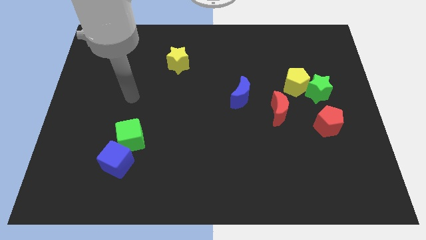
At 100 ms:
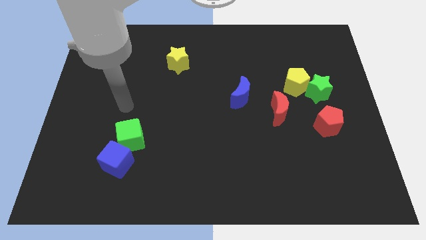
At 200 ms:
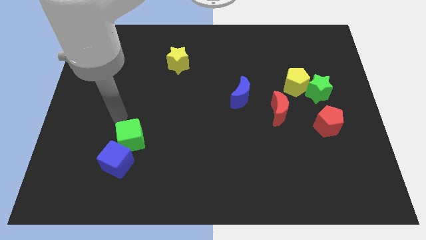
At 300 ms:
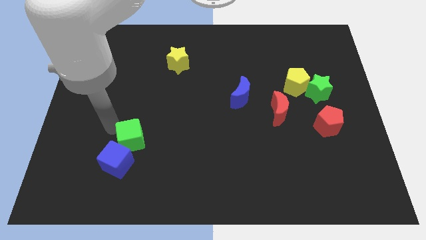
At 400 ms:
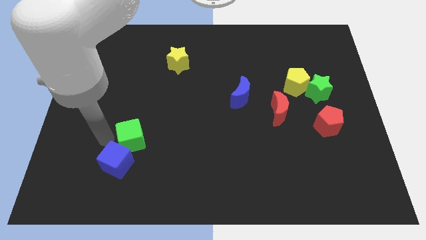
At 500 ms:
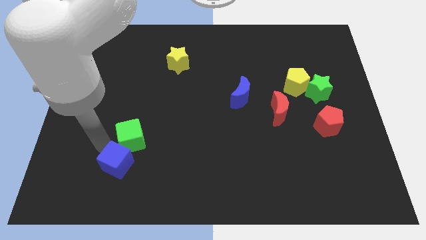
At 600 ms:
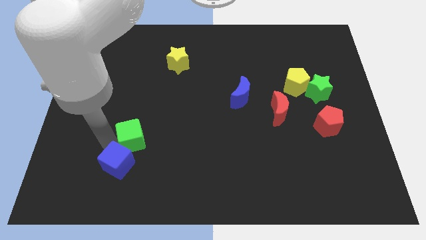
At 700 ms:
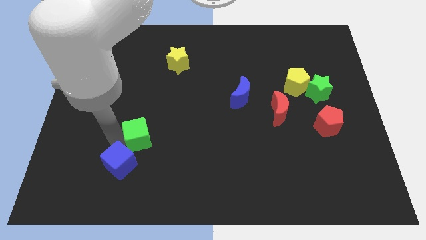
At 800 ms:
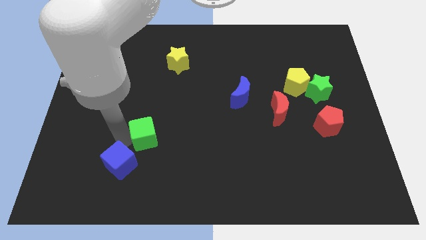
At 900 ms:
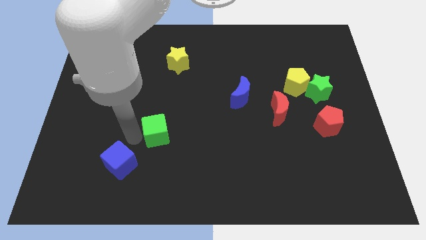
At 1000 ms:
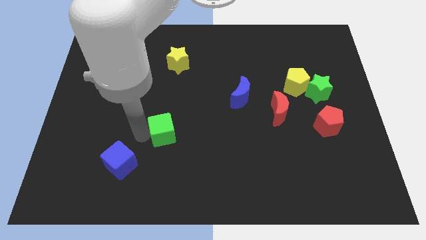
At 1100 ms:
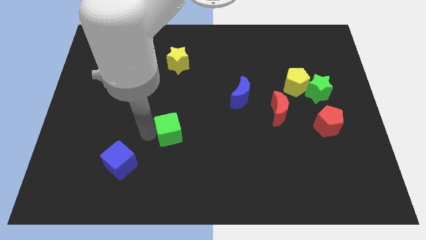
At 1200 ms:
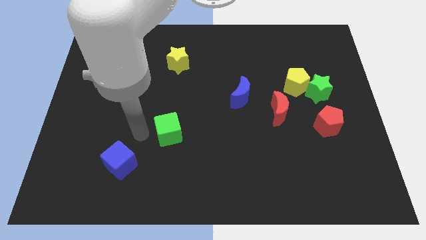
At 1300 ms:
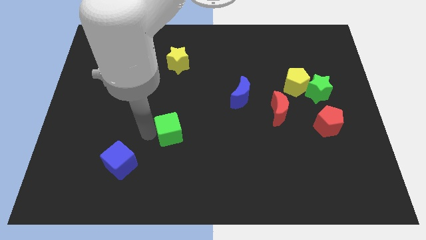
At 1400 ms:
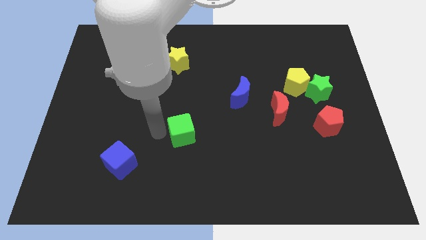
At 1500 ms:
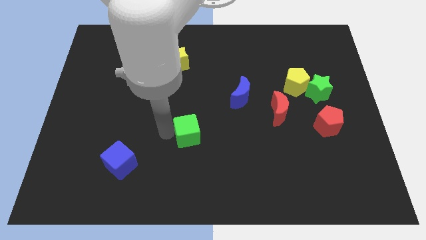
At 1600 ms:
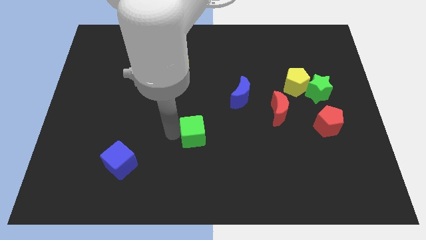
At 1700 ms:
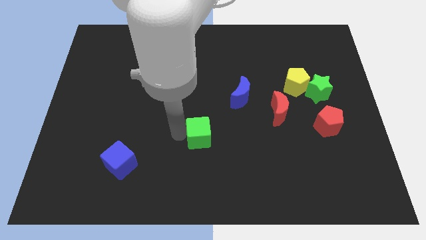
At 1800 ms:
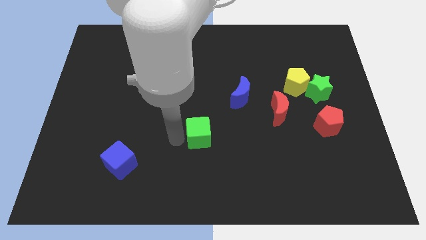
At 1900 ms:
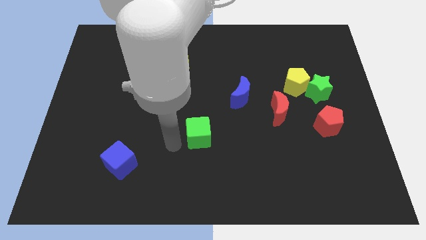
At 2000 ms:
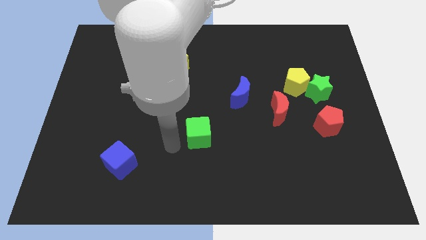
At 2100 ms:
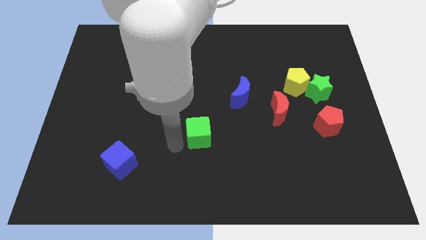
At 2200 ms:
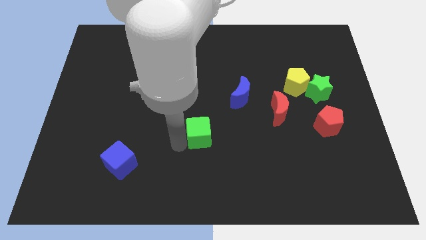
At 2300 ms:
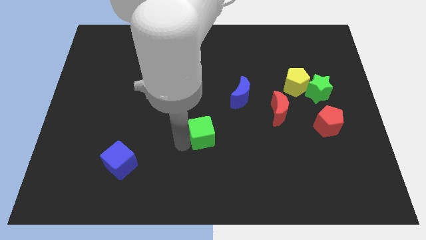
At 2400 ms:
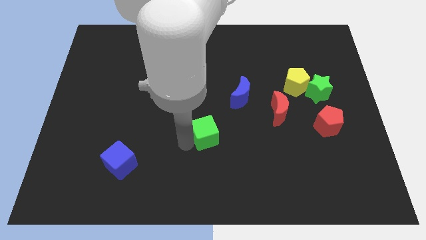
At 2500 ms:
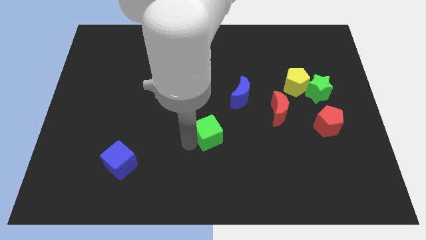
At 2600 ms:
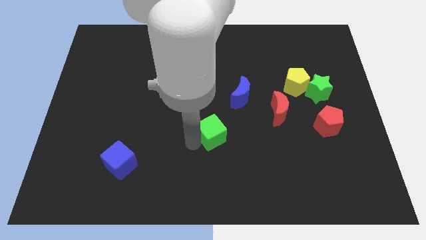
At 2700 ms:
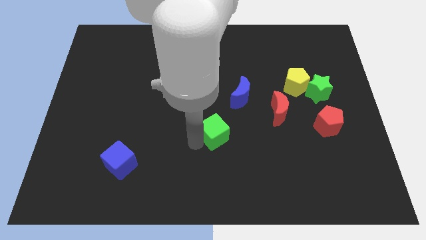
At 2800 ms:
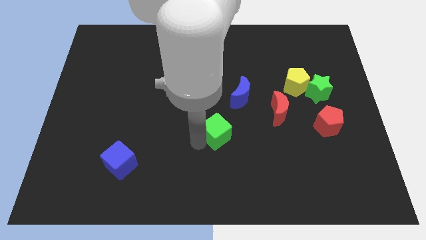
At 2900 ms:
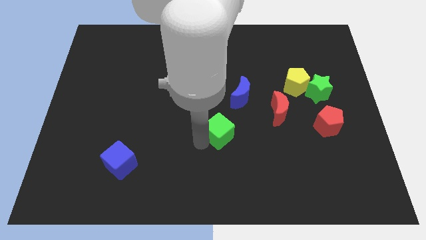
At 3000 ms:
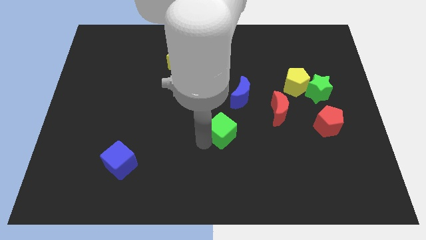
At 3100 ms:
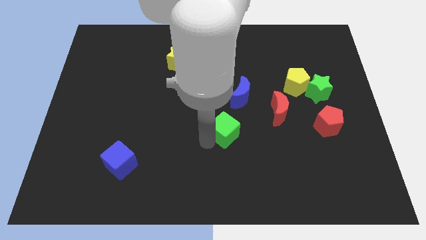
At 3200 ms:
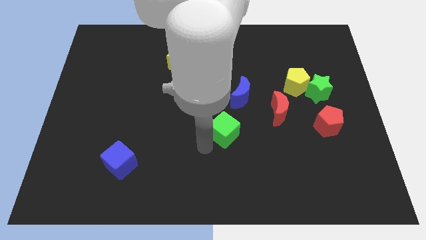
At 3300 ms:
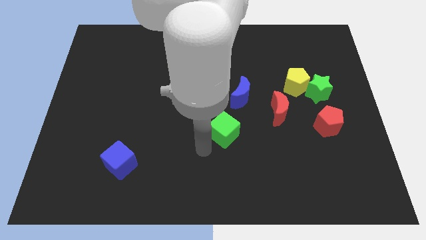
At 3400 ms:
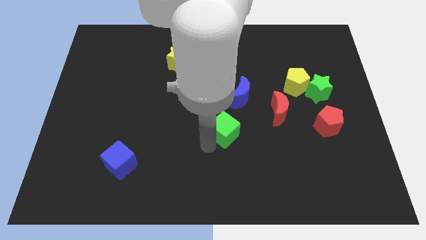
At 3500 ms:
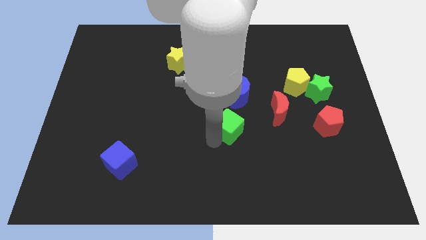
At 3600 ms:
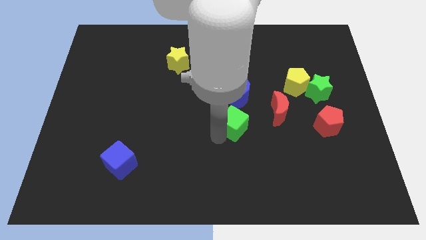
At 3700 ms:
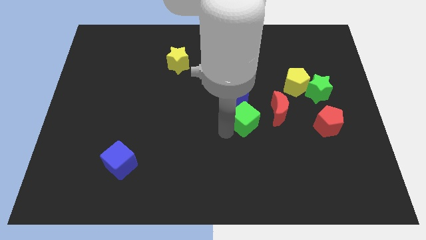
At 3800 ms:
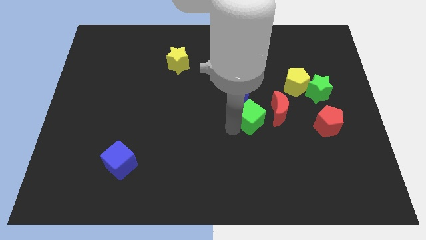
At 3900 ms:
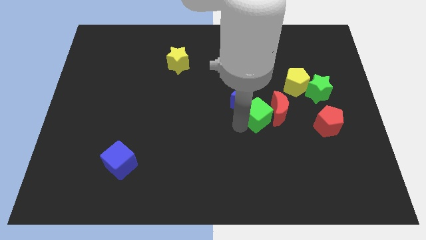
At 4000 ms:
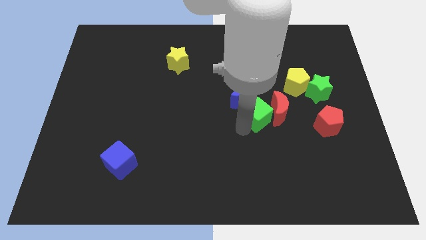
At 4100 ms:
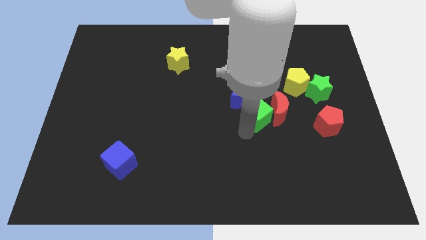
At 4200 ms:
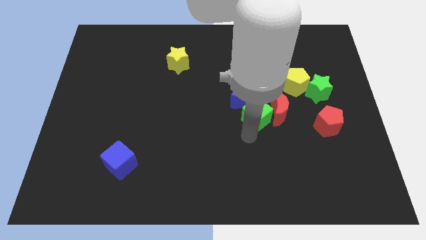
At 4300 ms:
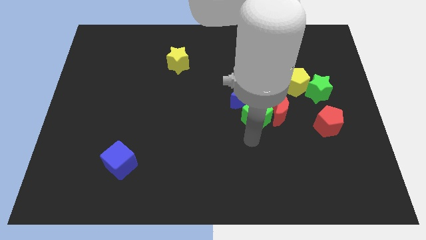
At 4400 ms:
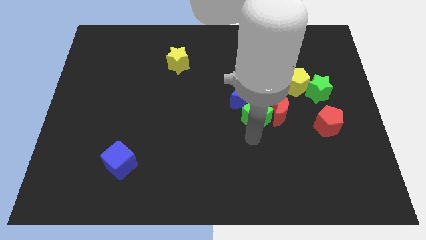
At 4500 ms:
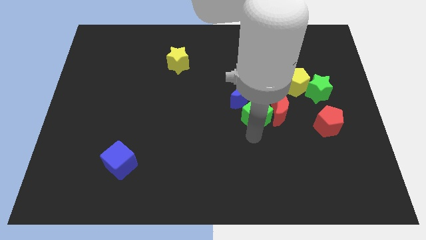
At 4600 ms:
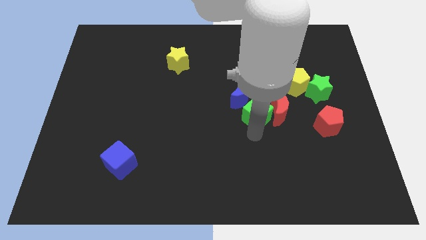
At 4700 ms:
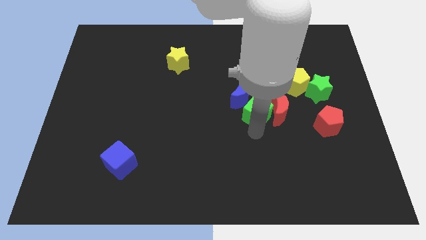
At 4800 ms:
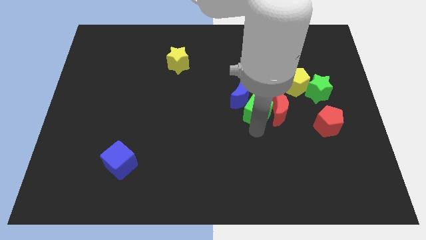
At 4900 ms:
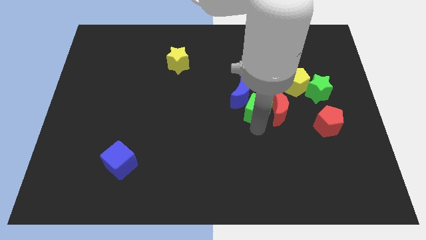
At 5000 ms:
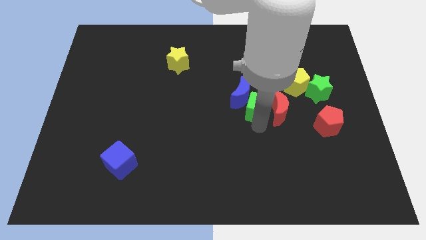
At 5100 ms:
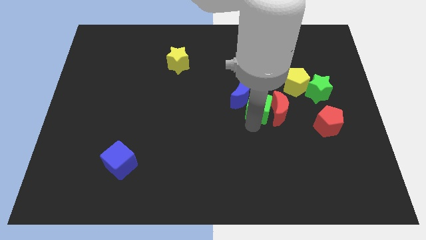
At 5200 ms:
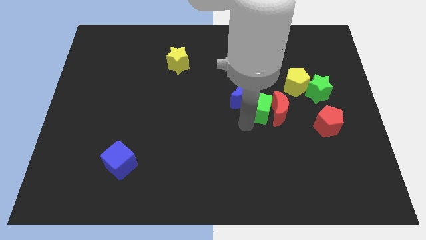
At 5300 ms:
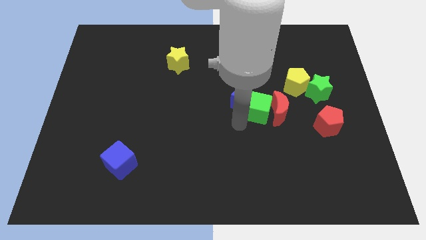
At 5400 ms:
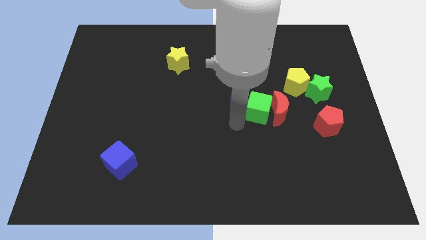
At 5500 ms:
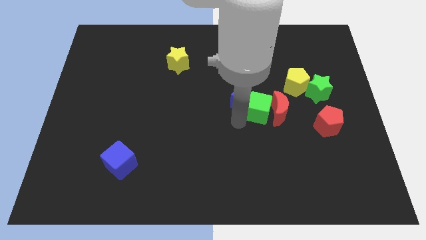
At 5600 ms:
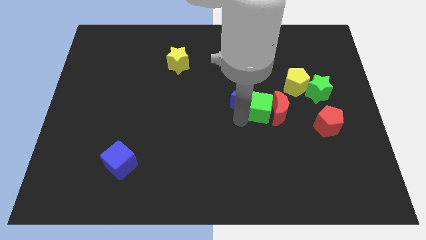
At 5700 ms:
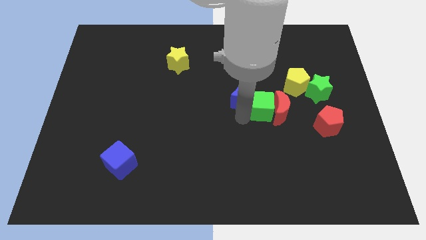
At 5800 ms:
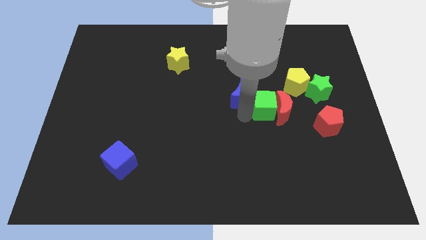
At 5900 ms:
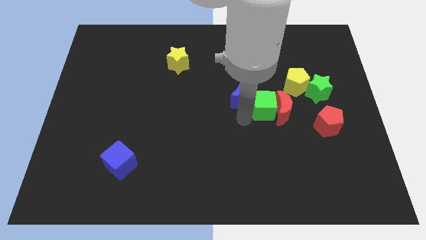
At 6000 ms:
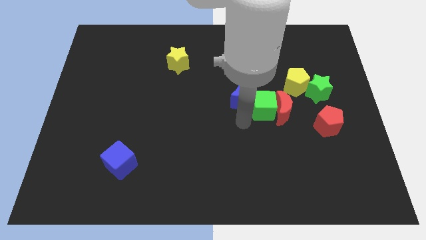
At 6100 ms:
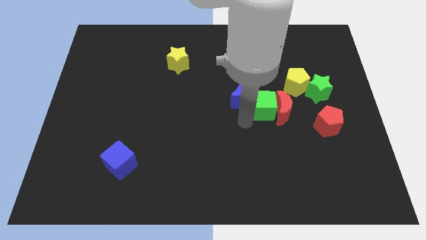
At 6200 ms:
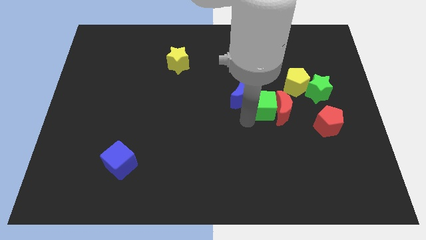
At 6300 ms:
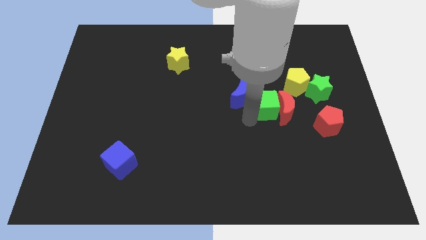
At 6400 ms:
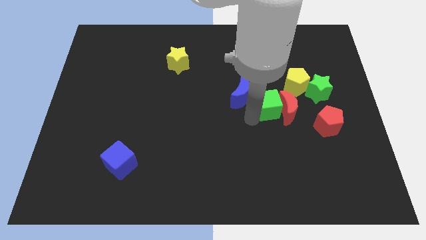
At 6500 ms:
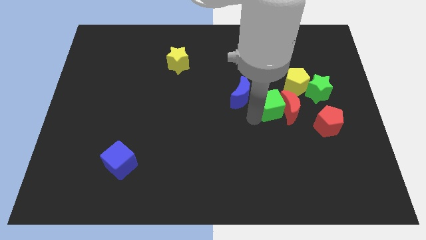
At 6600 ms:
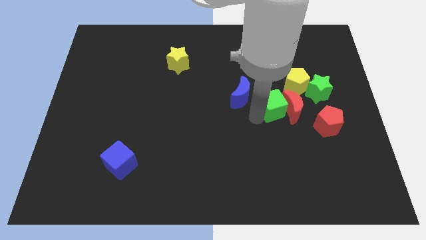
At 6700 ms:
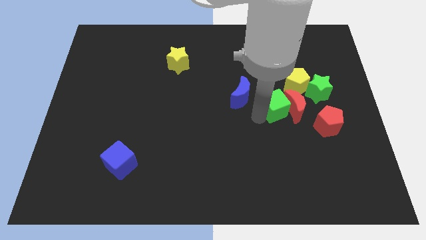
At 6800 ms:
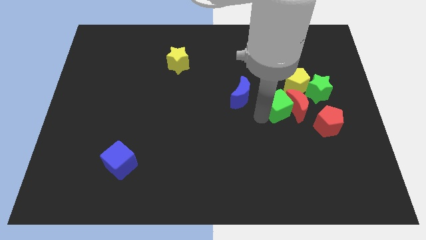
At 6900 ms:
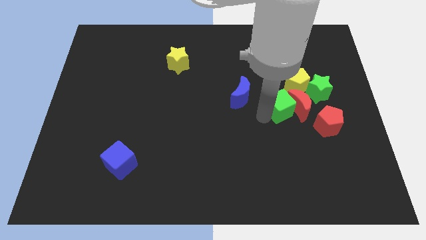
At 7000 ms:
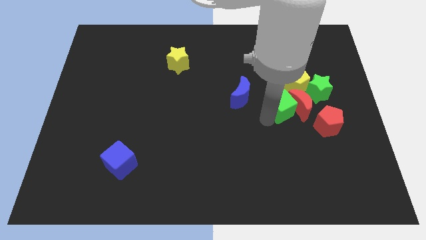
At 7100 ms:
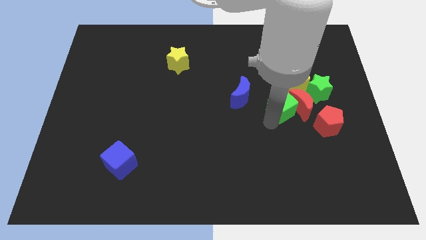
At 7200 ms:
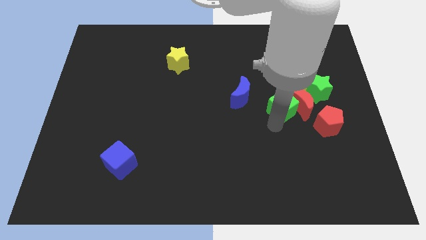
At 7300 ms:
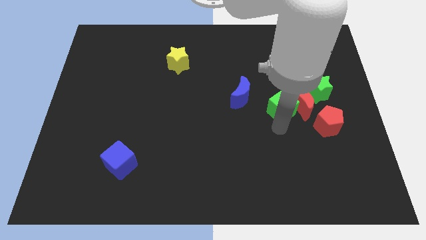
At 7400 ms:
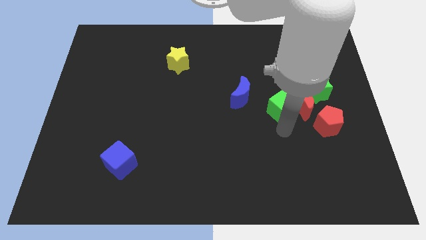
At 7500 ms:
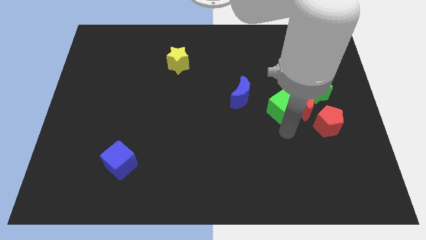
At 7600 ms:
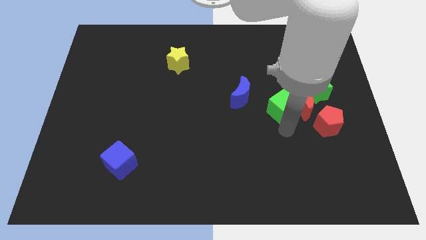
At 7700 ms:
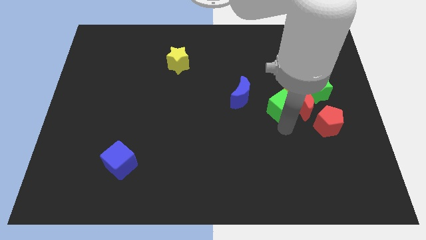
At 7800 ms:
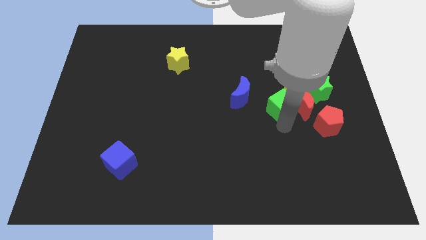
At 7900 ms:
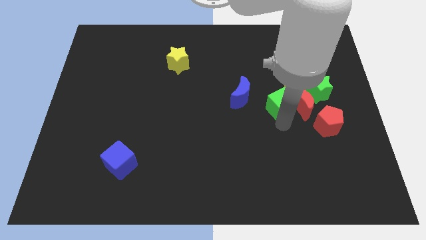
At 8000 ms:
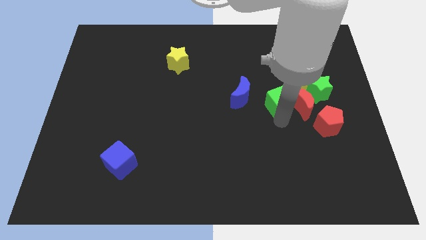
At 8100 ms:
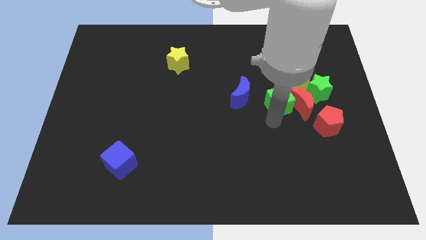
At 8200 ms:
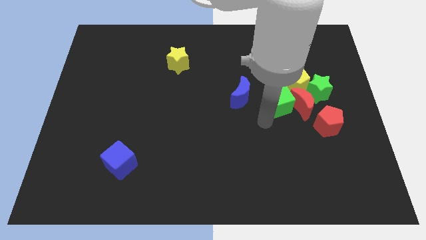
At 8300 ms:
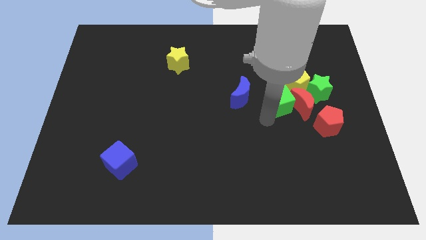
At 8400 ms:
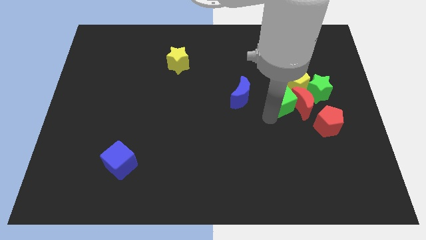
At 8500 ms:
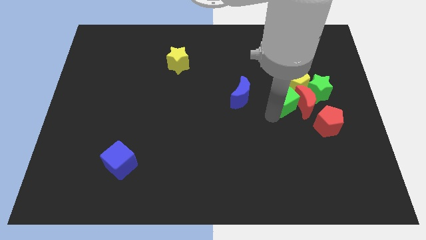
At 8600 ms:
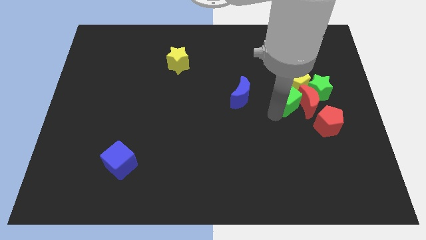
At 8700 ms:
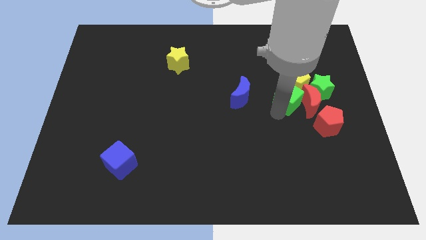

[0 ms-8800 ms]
slide the green cube close to the yellow pentagon
